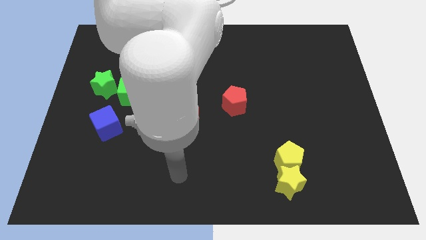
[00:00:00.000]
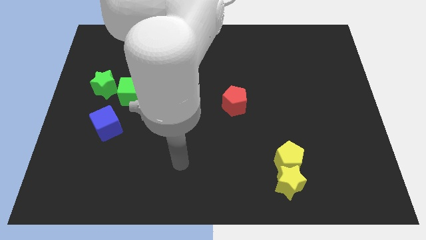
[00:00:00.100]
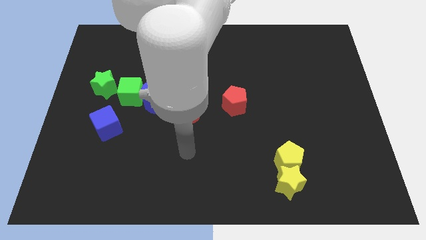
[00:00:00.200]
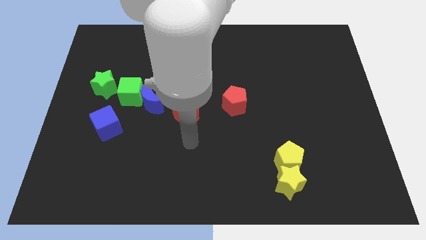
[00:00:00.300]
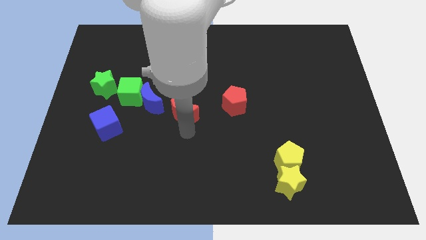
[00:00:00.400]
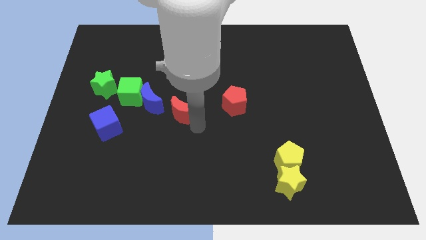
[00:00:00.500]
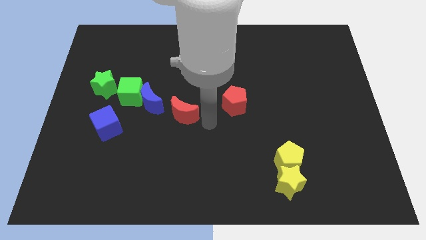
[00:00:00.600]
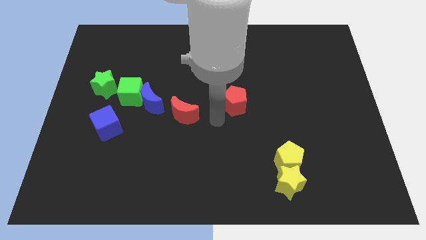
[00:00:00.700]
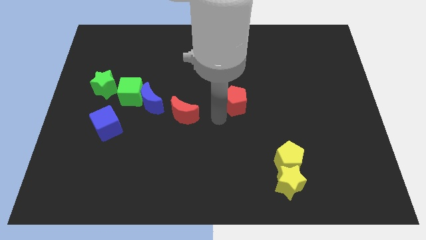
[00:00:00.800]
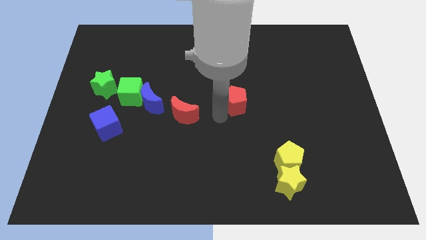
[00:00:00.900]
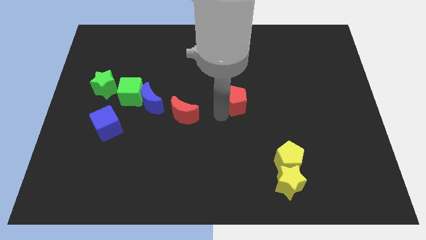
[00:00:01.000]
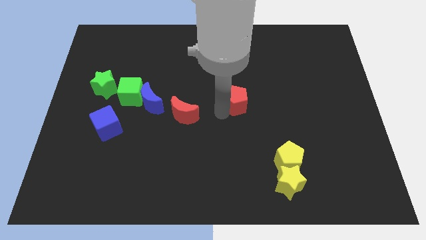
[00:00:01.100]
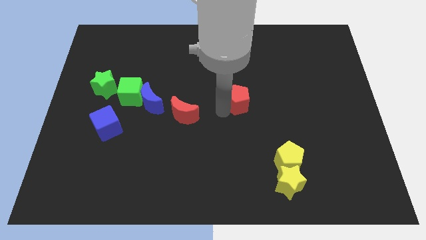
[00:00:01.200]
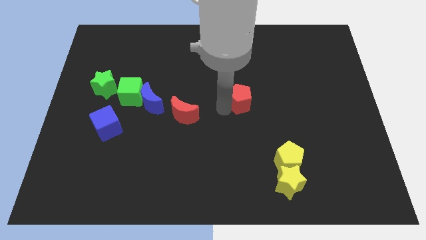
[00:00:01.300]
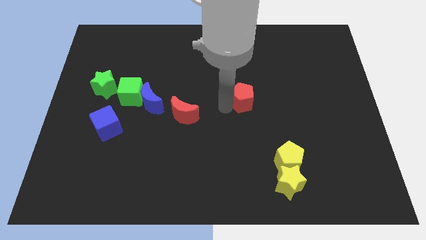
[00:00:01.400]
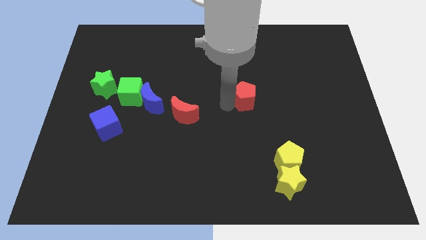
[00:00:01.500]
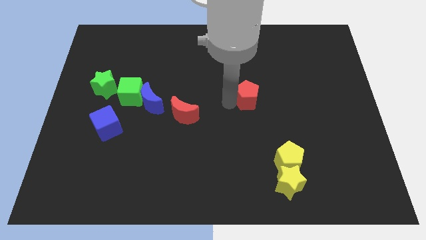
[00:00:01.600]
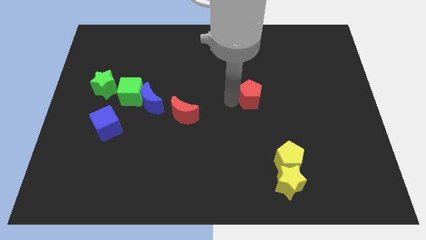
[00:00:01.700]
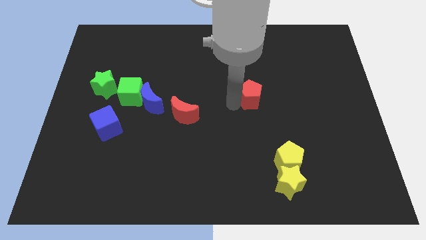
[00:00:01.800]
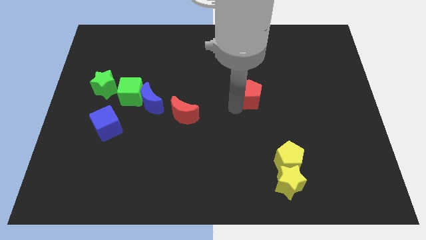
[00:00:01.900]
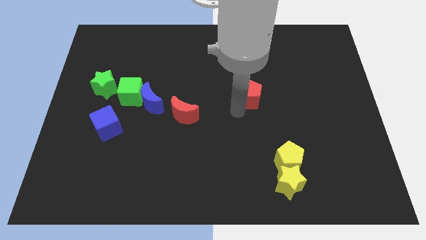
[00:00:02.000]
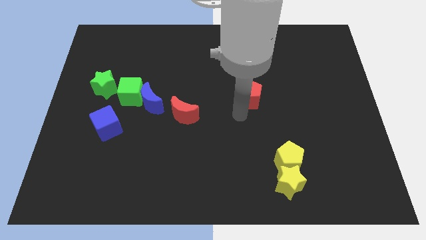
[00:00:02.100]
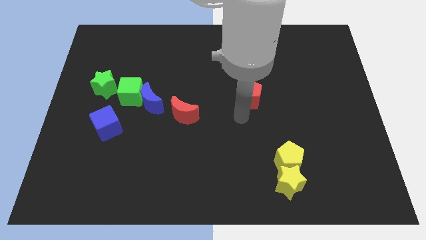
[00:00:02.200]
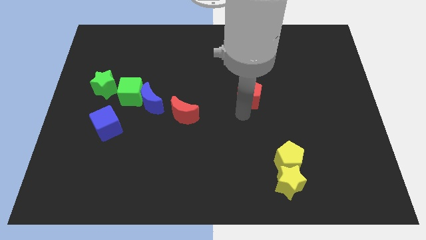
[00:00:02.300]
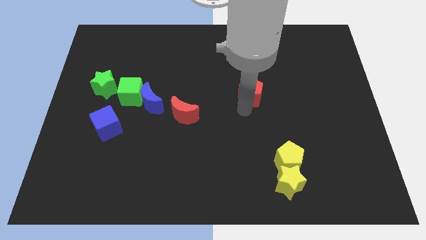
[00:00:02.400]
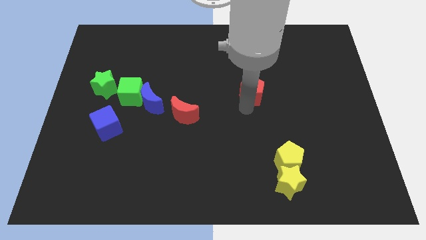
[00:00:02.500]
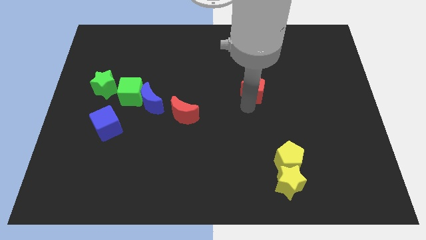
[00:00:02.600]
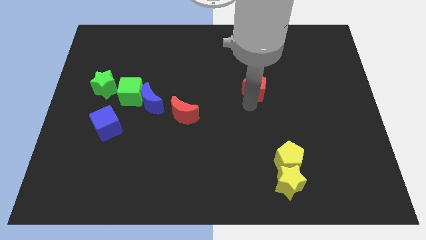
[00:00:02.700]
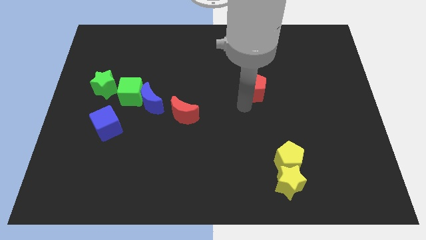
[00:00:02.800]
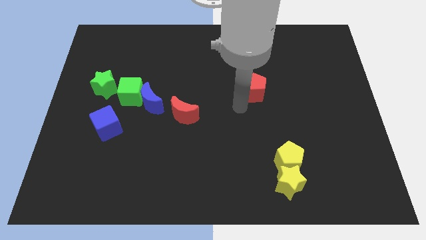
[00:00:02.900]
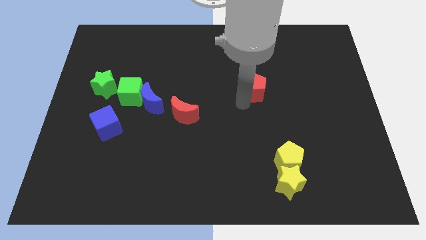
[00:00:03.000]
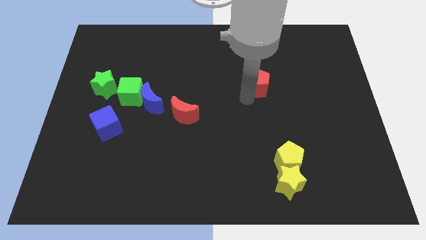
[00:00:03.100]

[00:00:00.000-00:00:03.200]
move the red pentagon slightly diagonally upwards and right

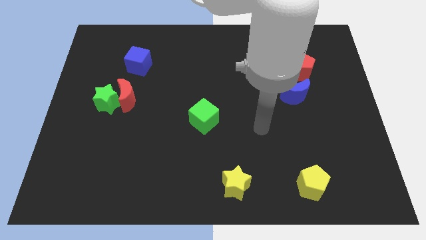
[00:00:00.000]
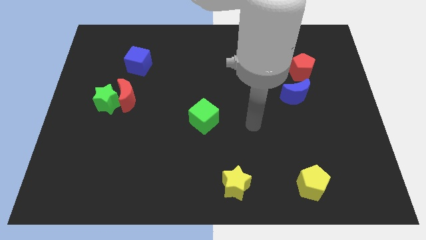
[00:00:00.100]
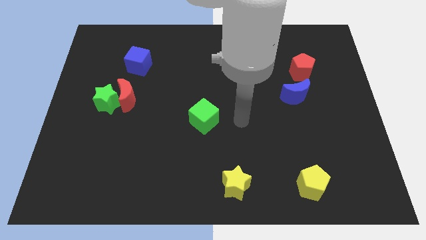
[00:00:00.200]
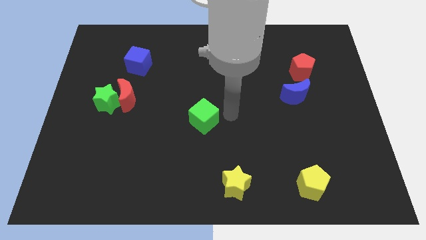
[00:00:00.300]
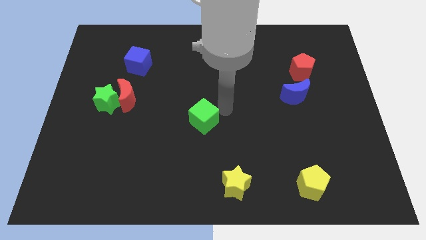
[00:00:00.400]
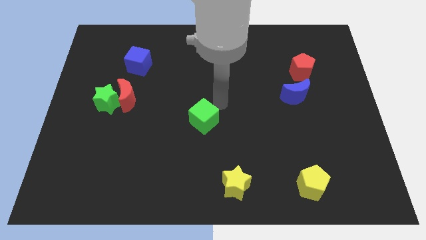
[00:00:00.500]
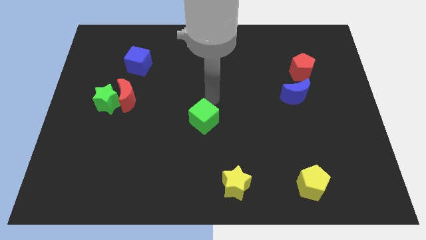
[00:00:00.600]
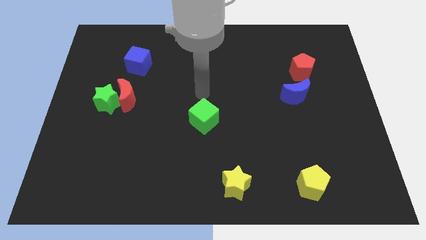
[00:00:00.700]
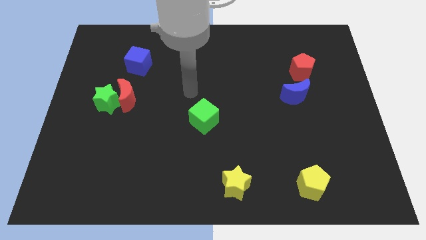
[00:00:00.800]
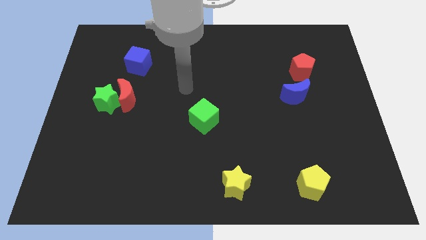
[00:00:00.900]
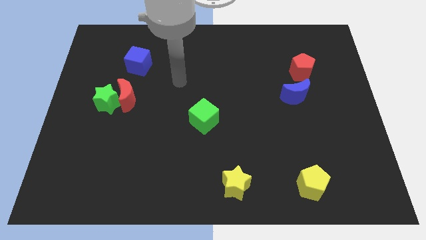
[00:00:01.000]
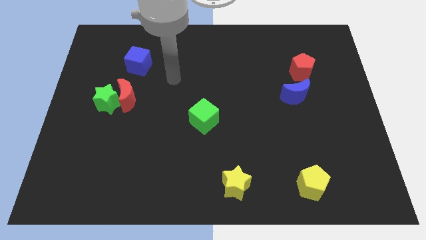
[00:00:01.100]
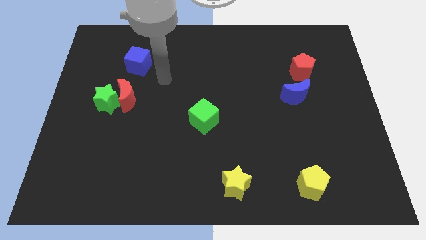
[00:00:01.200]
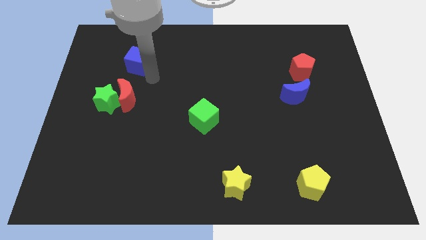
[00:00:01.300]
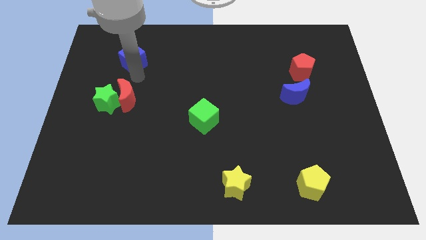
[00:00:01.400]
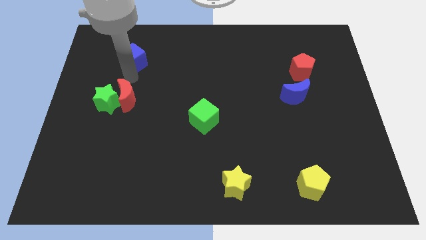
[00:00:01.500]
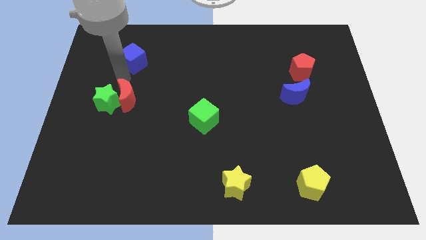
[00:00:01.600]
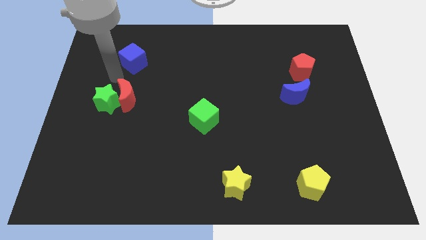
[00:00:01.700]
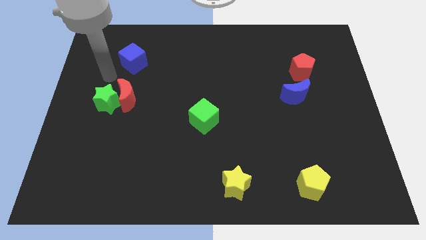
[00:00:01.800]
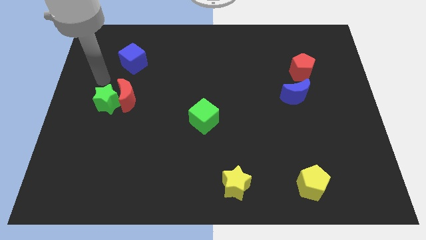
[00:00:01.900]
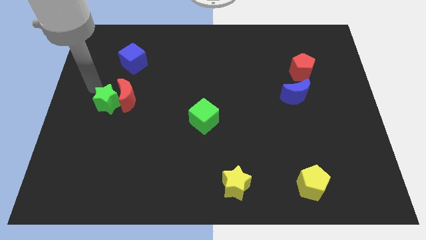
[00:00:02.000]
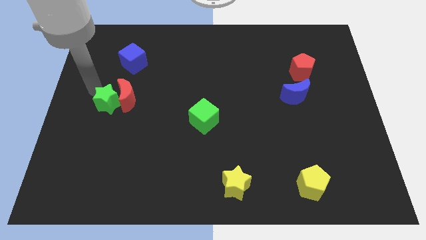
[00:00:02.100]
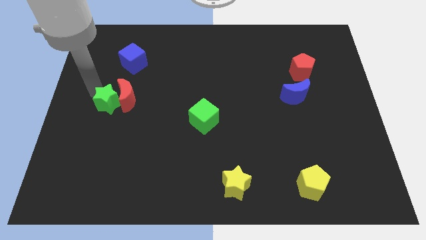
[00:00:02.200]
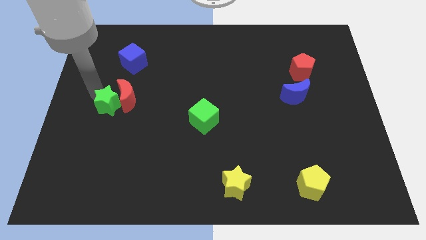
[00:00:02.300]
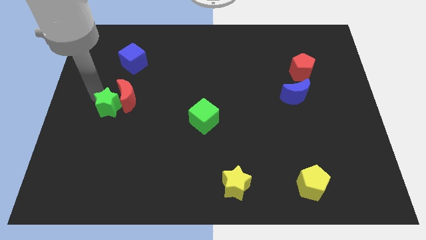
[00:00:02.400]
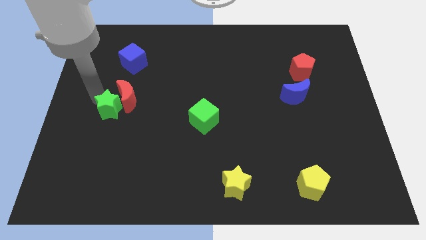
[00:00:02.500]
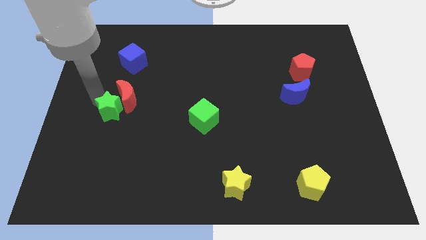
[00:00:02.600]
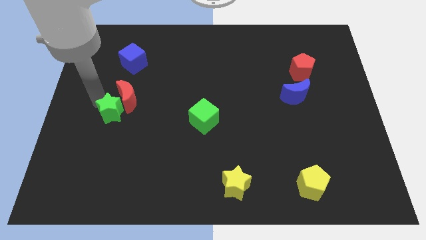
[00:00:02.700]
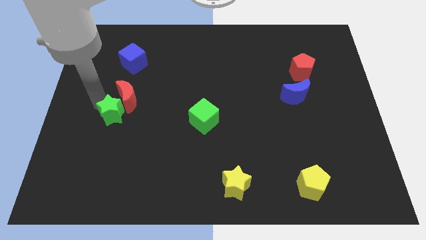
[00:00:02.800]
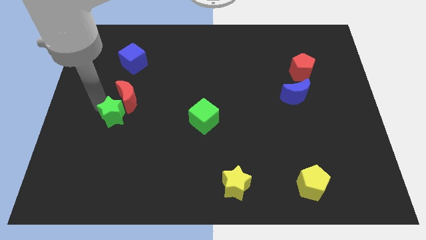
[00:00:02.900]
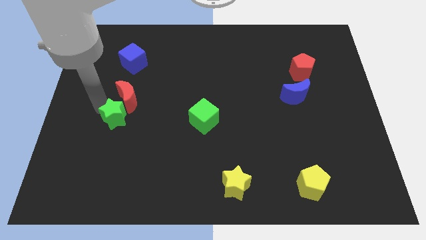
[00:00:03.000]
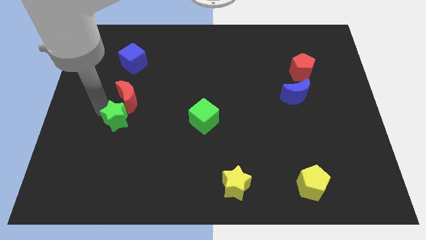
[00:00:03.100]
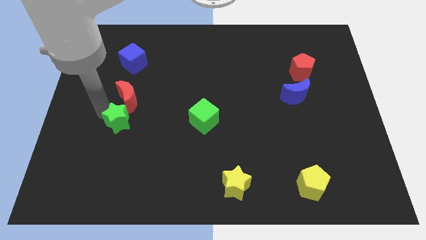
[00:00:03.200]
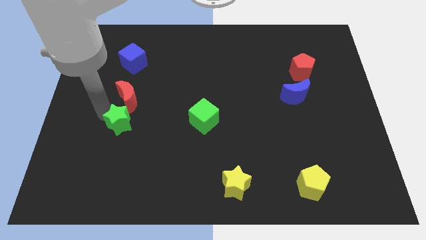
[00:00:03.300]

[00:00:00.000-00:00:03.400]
slide the green star a little diagonally downwards and to the right

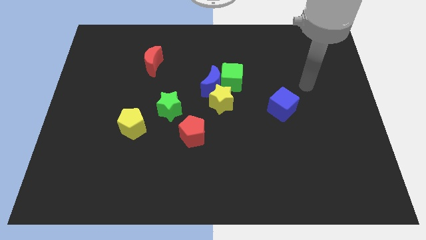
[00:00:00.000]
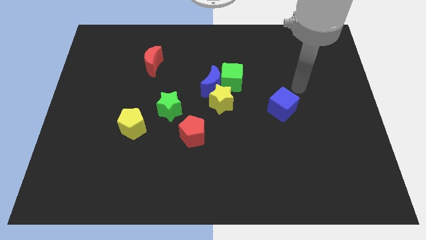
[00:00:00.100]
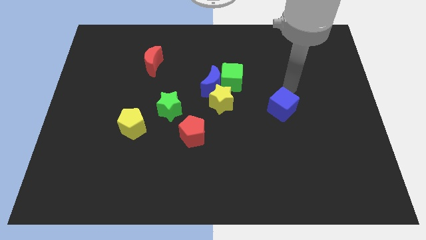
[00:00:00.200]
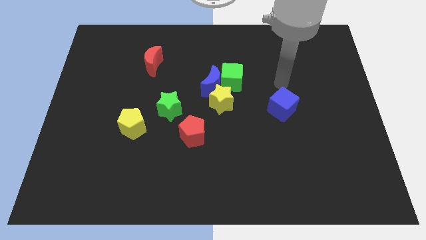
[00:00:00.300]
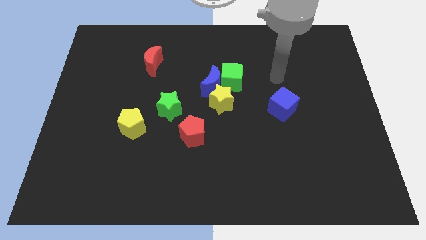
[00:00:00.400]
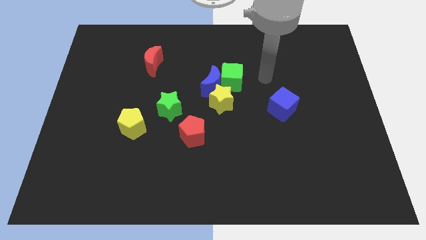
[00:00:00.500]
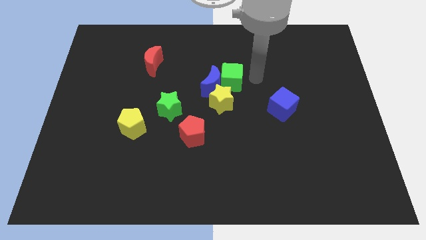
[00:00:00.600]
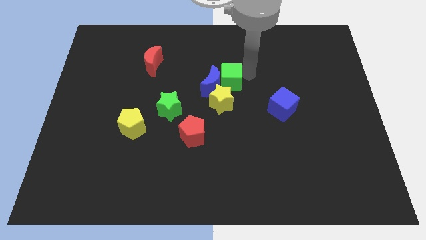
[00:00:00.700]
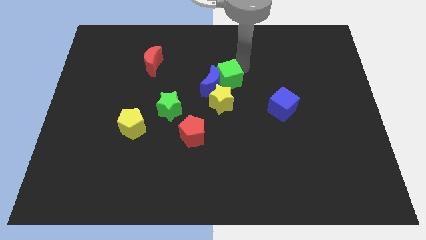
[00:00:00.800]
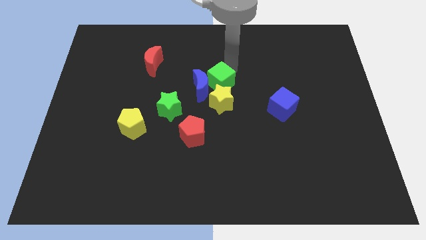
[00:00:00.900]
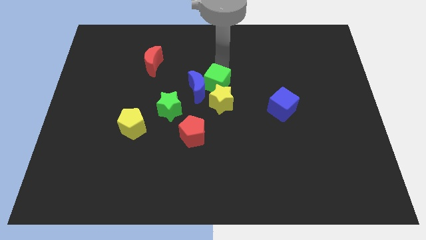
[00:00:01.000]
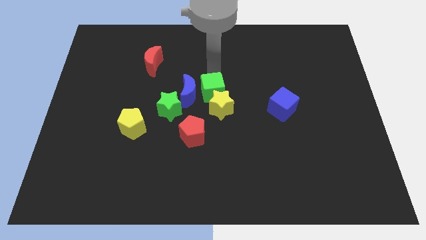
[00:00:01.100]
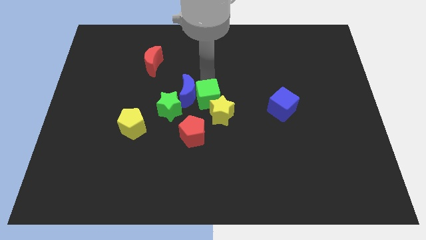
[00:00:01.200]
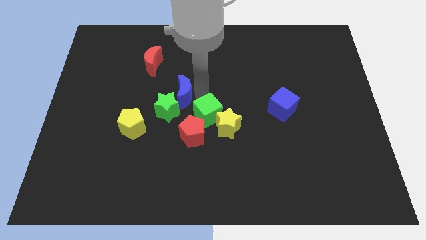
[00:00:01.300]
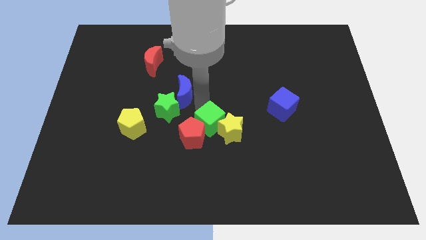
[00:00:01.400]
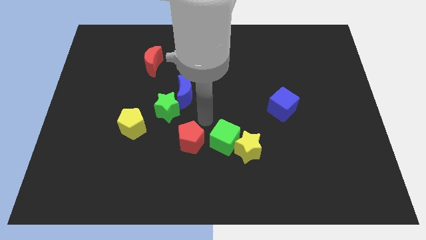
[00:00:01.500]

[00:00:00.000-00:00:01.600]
slide the yellow star slightly downwards and then right
